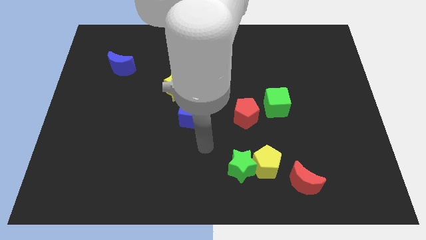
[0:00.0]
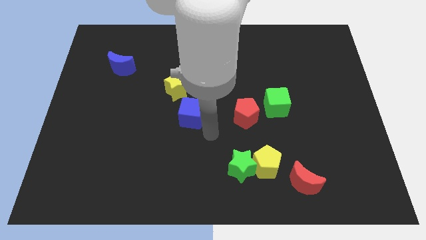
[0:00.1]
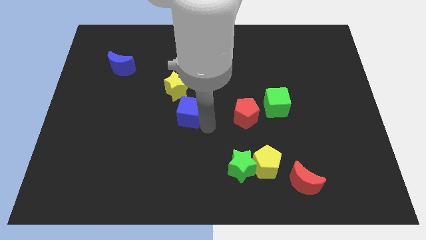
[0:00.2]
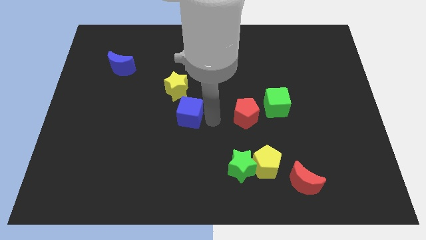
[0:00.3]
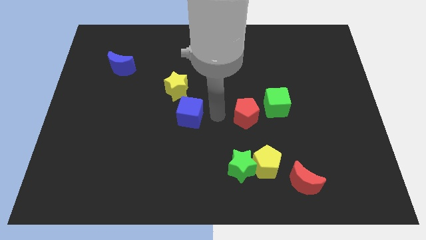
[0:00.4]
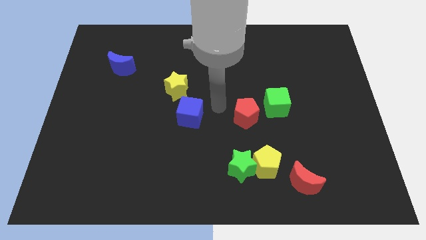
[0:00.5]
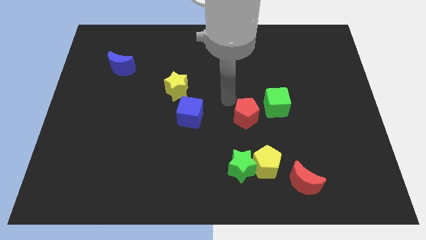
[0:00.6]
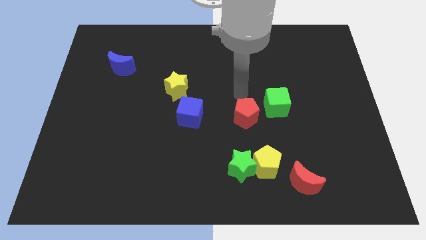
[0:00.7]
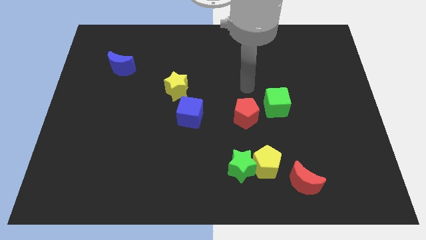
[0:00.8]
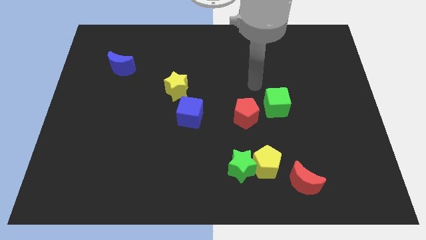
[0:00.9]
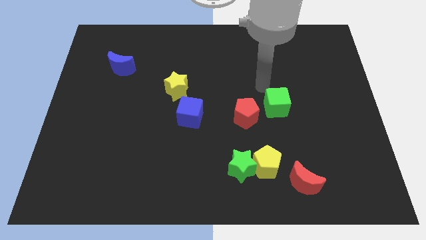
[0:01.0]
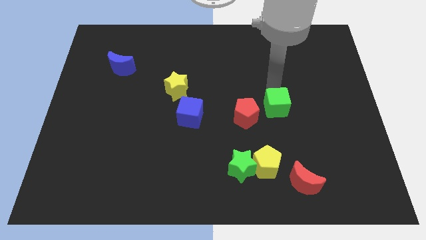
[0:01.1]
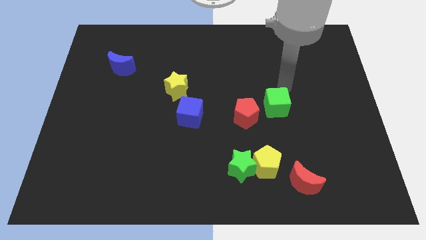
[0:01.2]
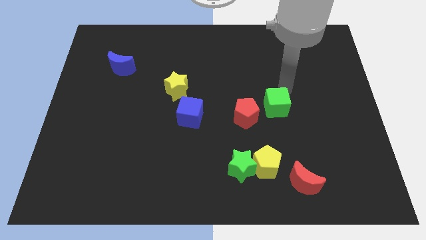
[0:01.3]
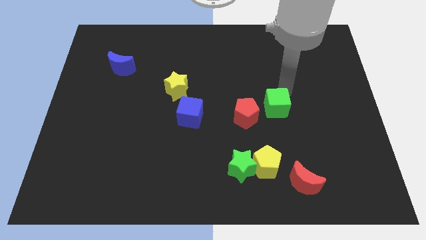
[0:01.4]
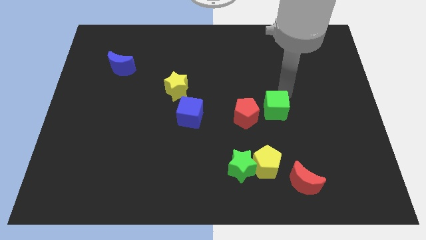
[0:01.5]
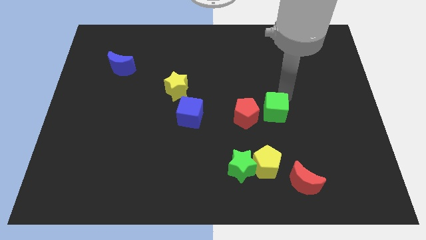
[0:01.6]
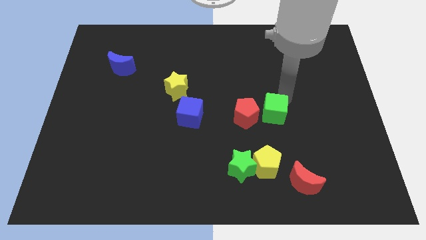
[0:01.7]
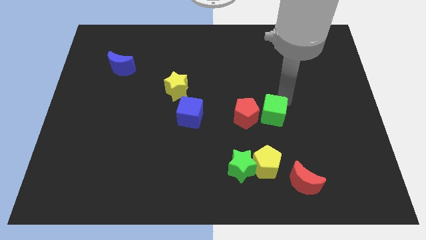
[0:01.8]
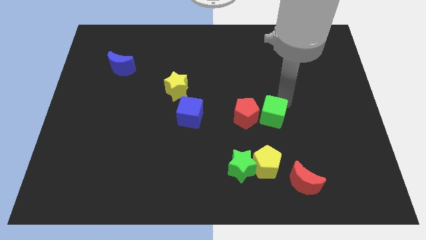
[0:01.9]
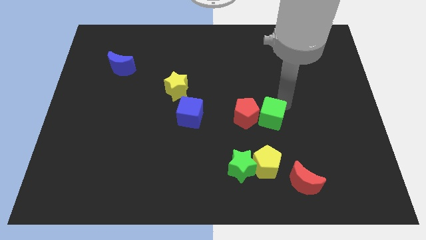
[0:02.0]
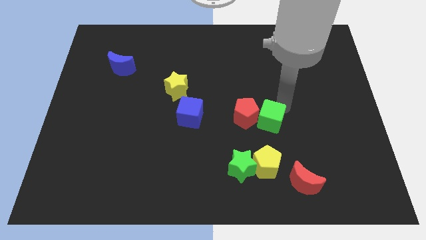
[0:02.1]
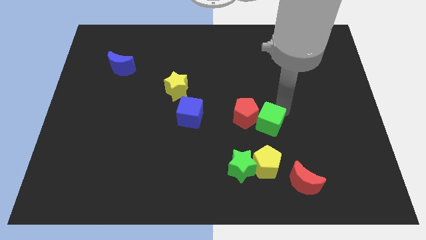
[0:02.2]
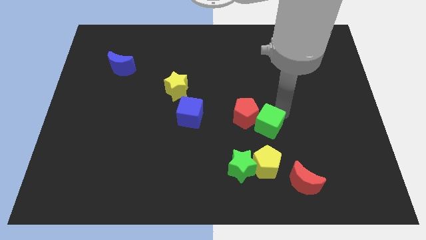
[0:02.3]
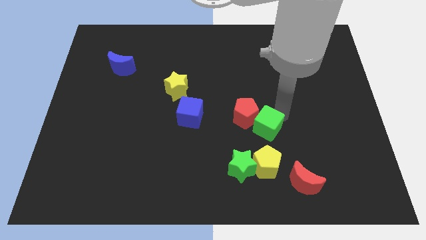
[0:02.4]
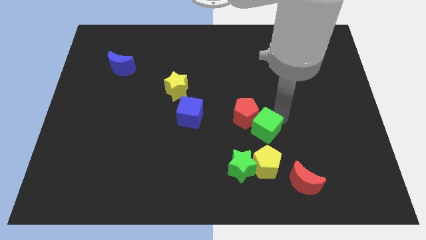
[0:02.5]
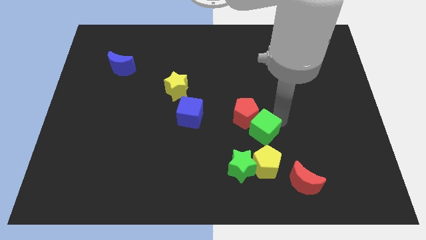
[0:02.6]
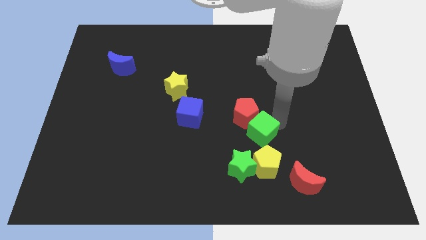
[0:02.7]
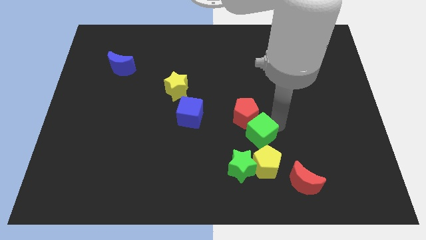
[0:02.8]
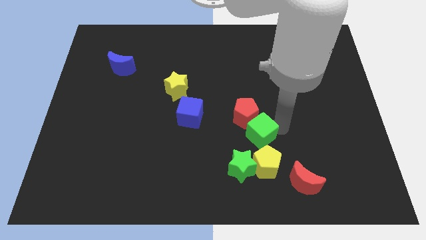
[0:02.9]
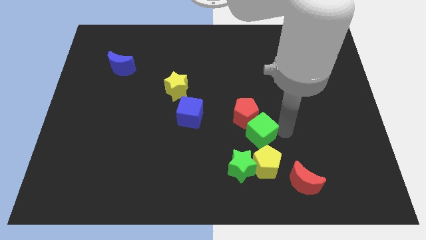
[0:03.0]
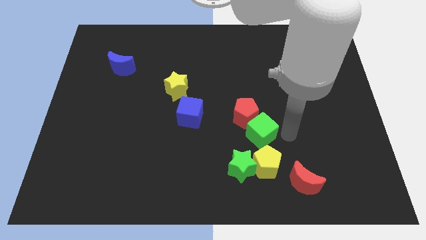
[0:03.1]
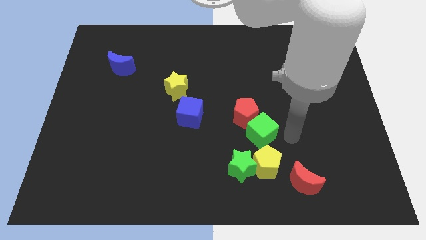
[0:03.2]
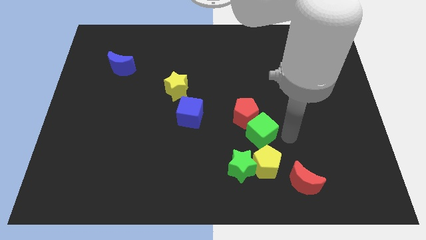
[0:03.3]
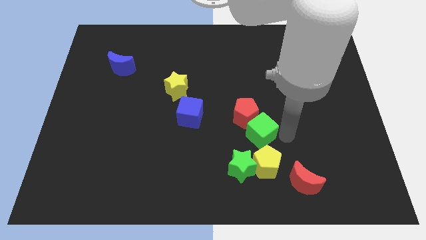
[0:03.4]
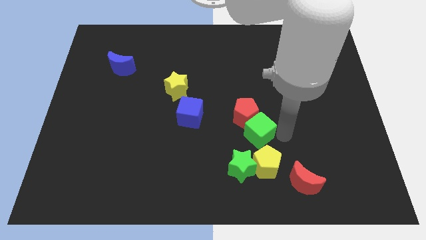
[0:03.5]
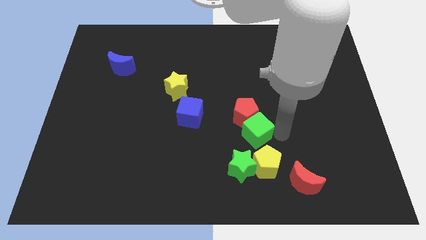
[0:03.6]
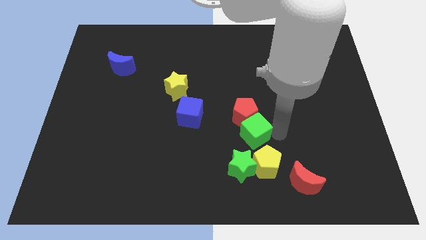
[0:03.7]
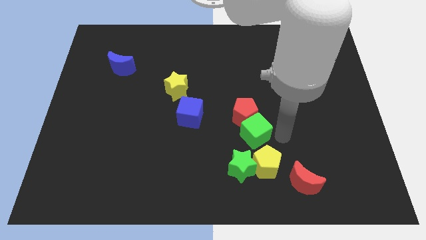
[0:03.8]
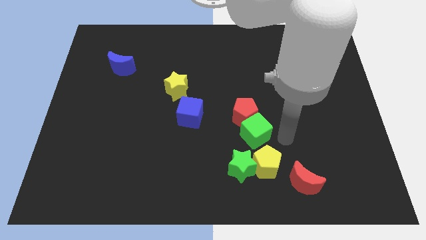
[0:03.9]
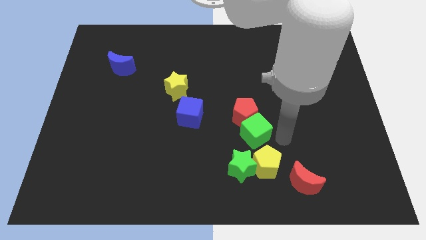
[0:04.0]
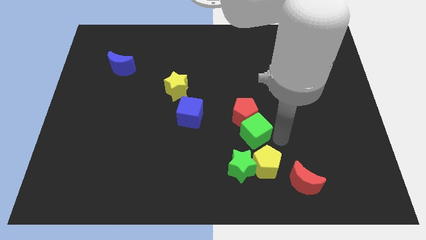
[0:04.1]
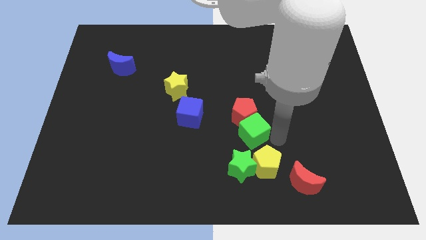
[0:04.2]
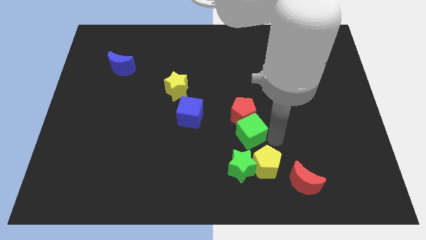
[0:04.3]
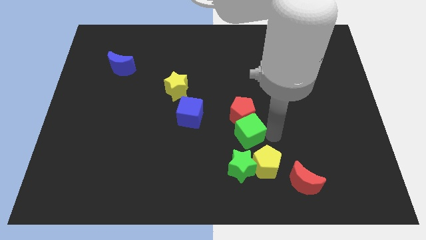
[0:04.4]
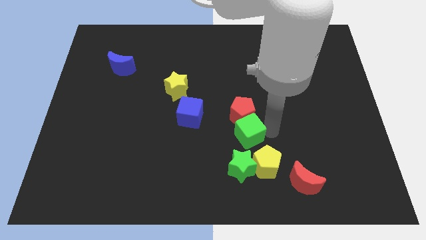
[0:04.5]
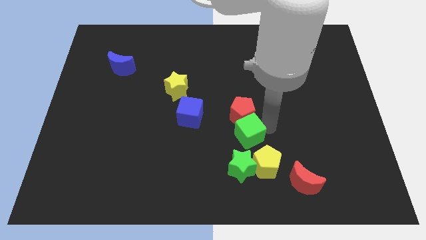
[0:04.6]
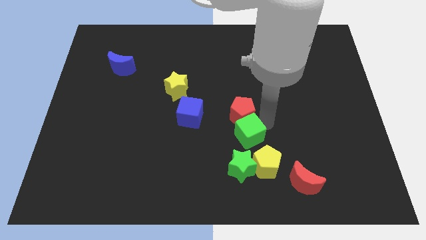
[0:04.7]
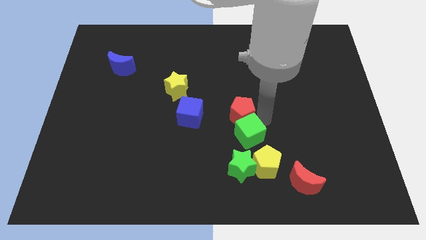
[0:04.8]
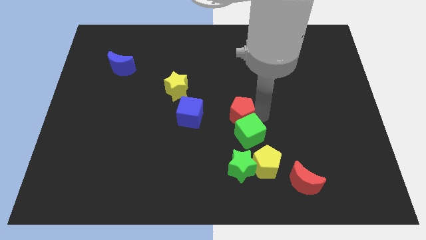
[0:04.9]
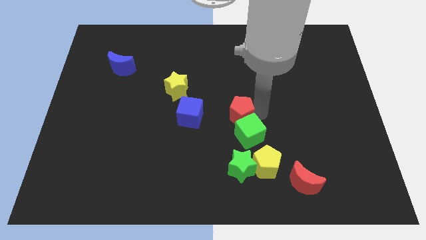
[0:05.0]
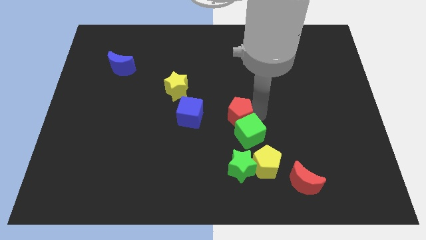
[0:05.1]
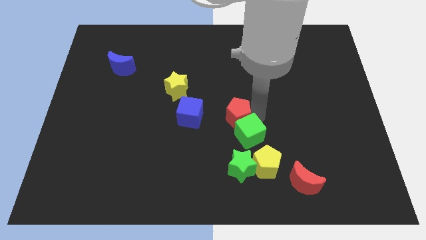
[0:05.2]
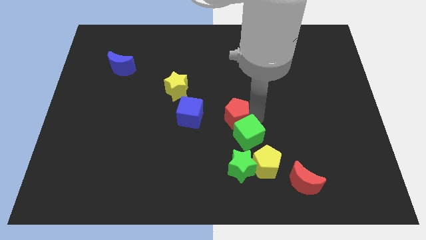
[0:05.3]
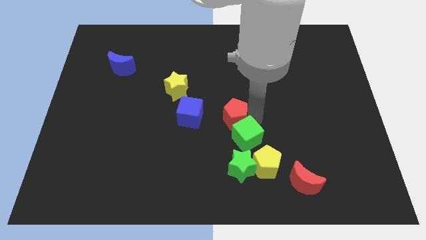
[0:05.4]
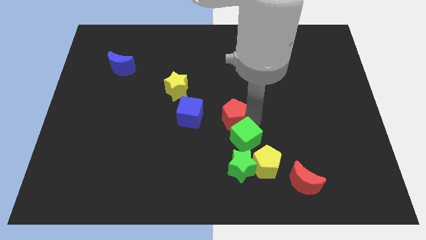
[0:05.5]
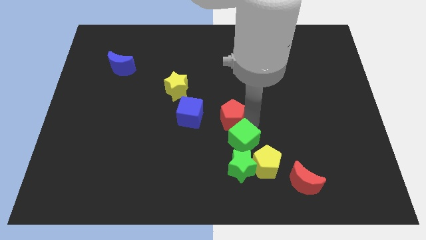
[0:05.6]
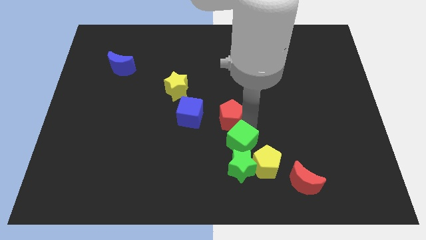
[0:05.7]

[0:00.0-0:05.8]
push the green cube close to the green star

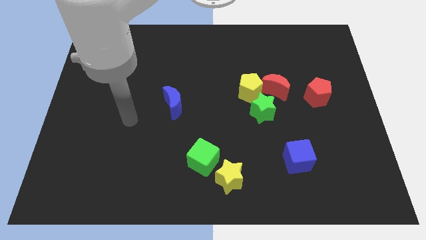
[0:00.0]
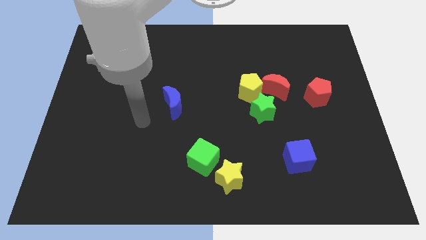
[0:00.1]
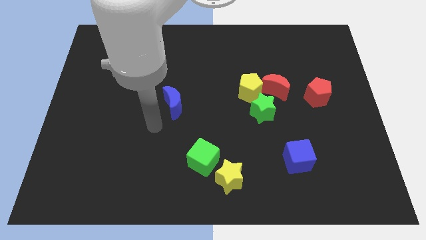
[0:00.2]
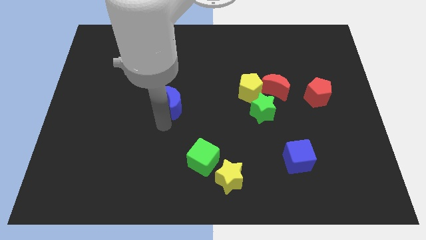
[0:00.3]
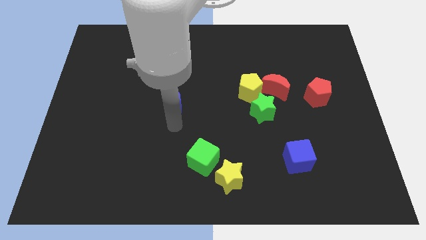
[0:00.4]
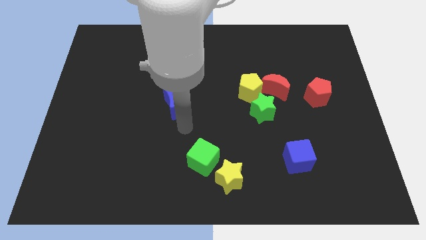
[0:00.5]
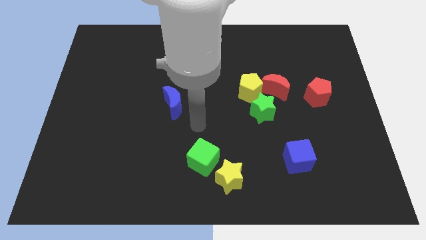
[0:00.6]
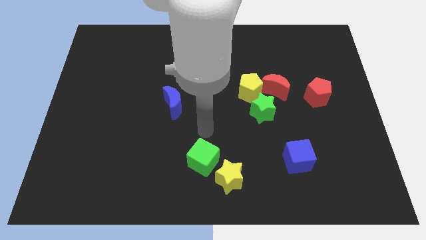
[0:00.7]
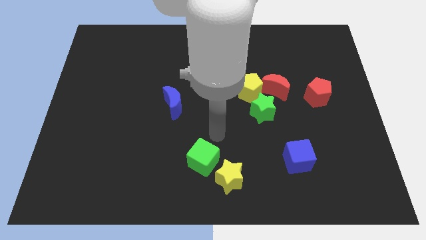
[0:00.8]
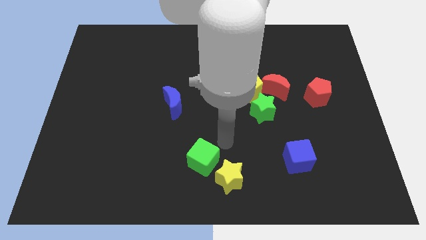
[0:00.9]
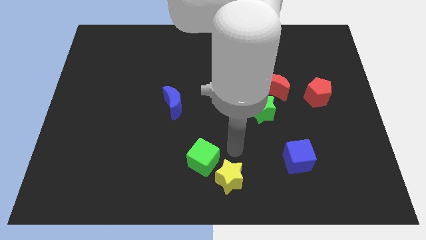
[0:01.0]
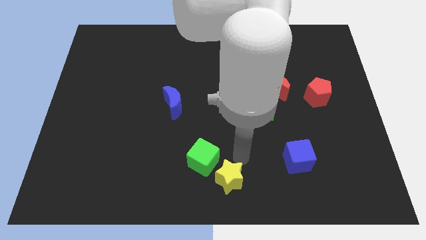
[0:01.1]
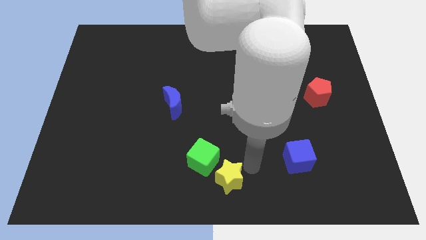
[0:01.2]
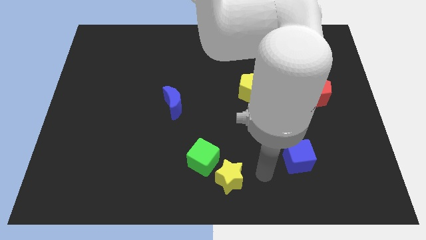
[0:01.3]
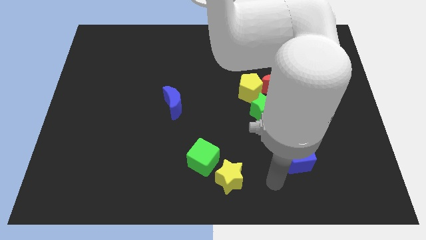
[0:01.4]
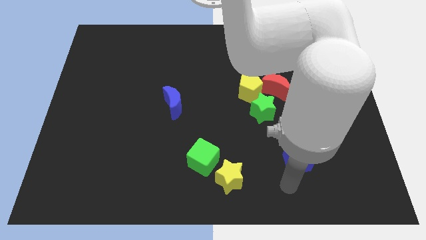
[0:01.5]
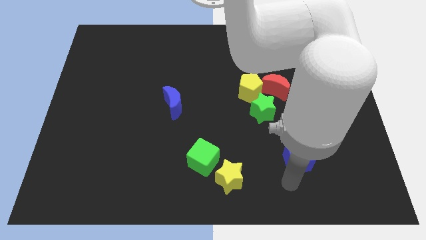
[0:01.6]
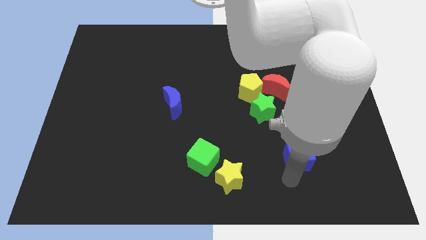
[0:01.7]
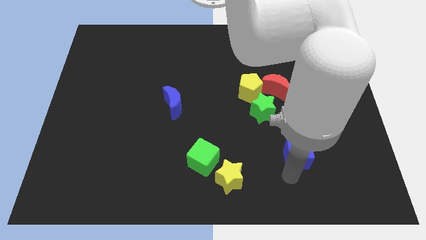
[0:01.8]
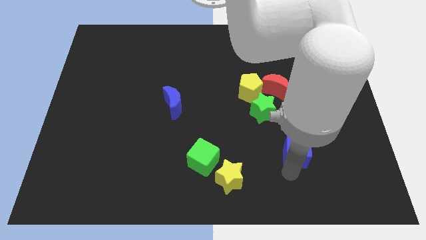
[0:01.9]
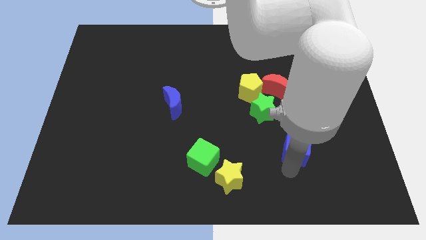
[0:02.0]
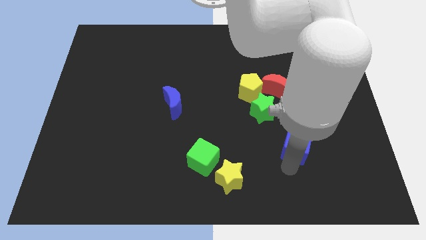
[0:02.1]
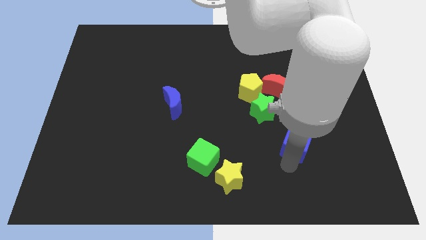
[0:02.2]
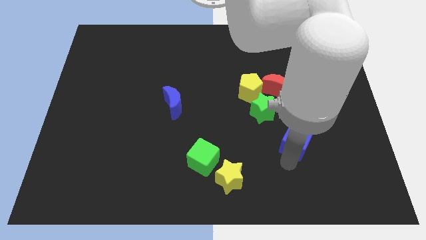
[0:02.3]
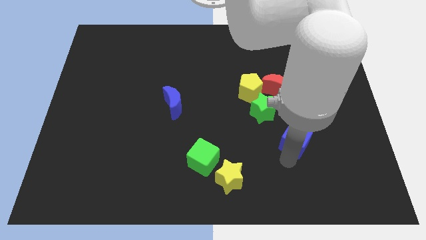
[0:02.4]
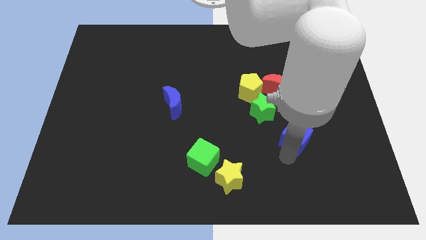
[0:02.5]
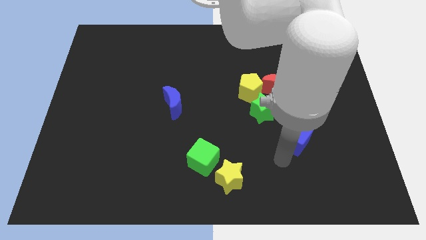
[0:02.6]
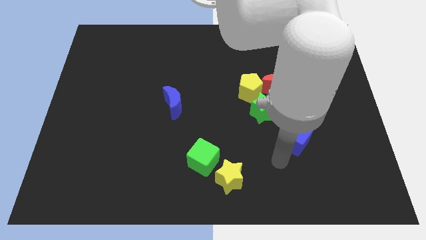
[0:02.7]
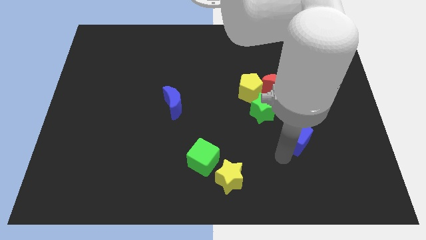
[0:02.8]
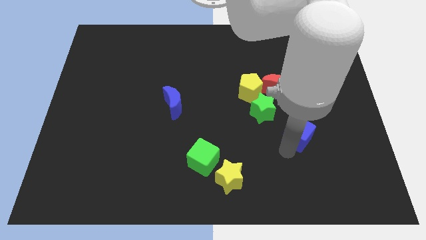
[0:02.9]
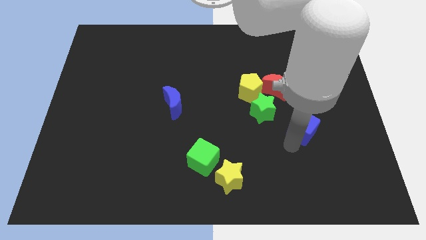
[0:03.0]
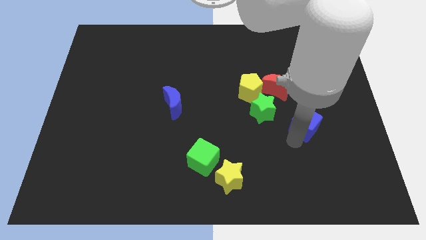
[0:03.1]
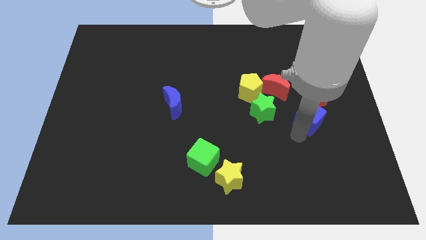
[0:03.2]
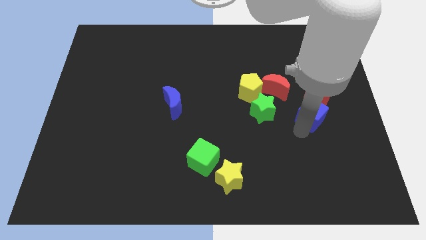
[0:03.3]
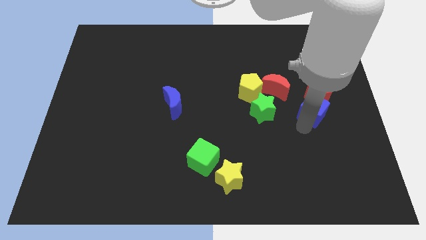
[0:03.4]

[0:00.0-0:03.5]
put the blue cube next to the red pentagon
